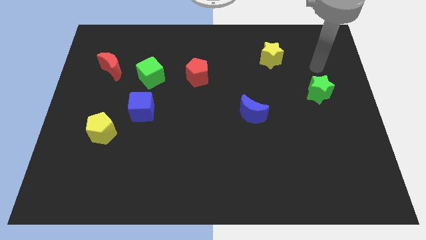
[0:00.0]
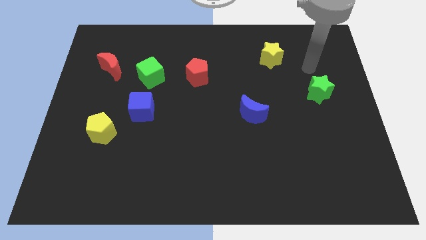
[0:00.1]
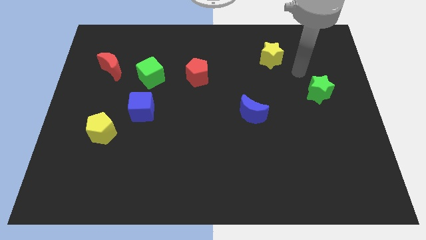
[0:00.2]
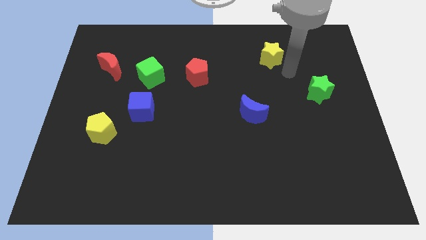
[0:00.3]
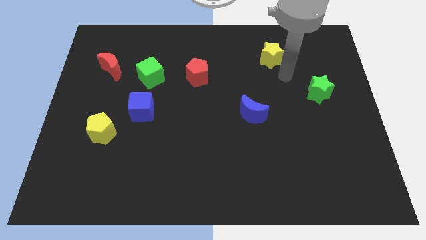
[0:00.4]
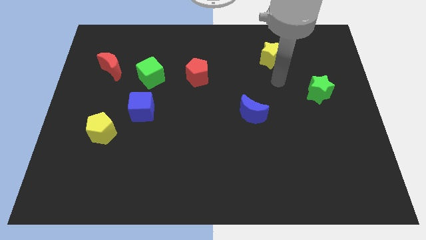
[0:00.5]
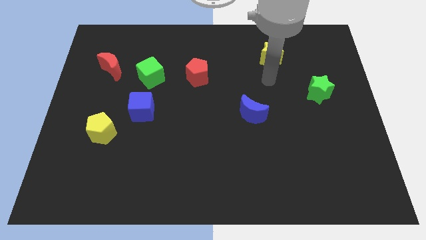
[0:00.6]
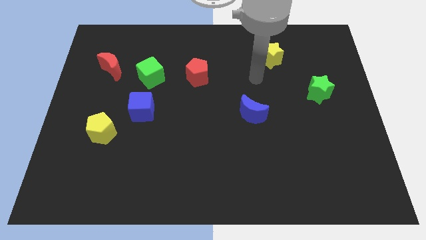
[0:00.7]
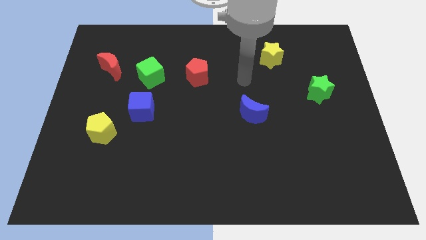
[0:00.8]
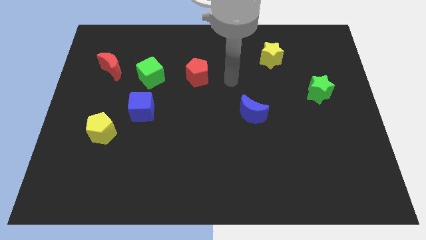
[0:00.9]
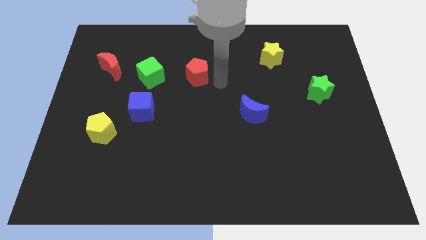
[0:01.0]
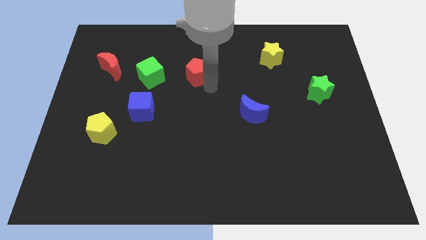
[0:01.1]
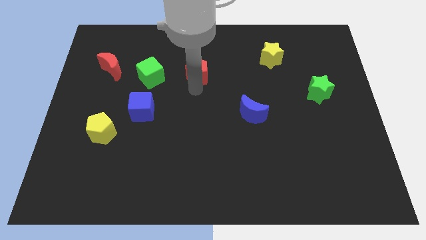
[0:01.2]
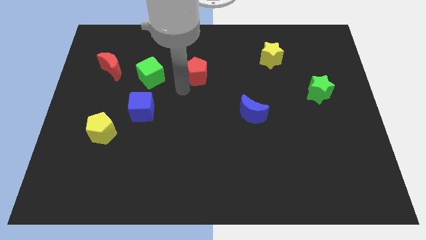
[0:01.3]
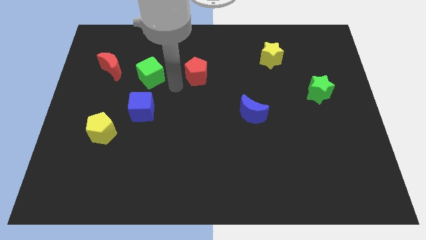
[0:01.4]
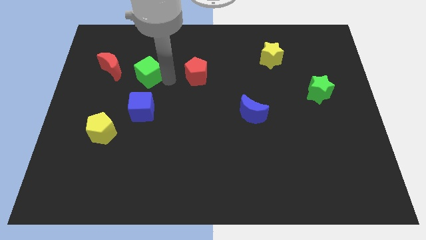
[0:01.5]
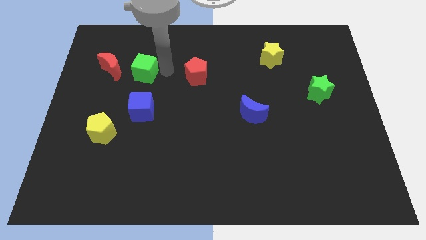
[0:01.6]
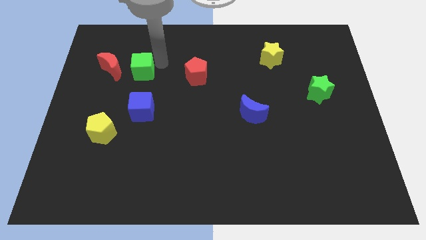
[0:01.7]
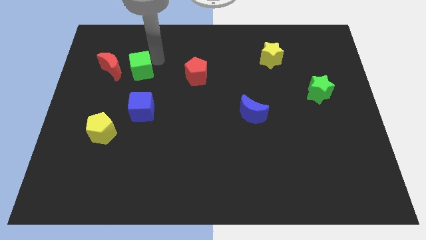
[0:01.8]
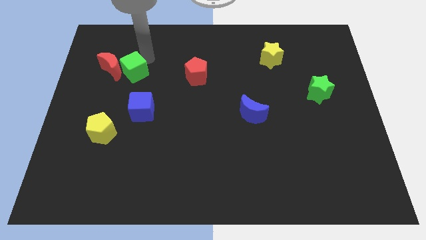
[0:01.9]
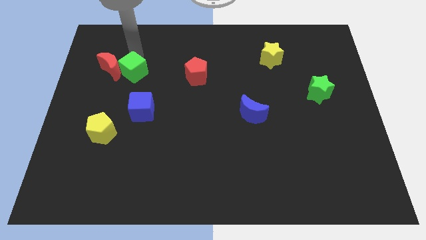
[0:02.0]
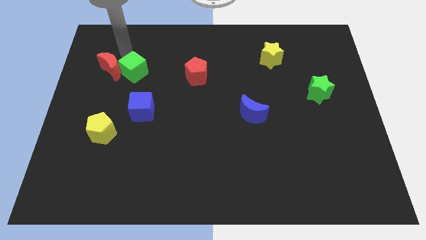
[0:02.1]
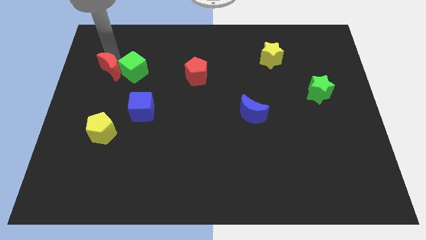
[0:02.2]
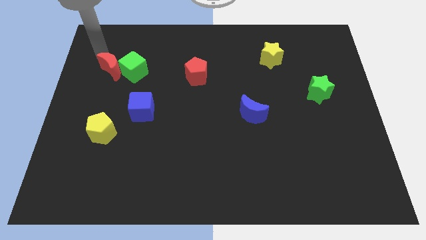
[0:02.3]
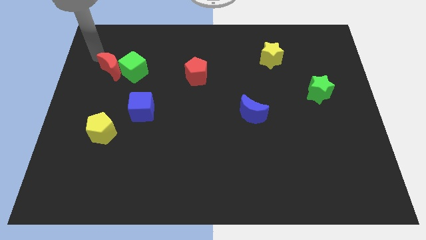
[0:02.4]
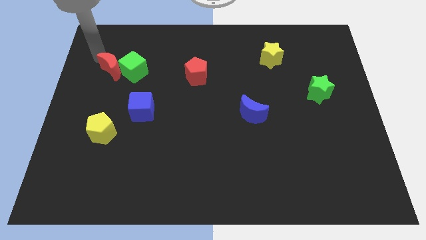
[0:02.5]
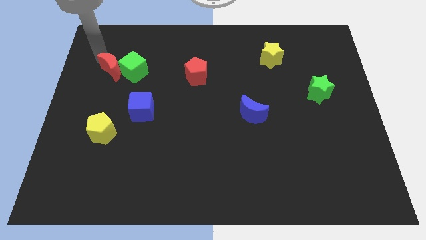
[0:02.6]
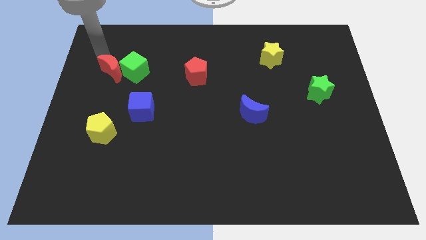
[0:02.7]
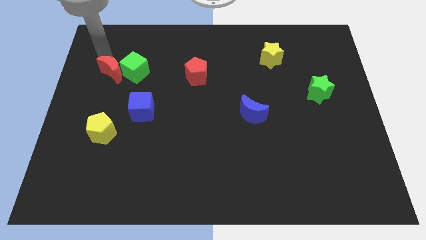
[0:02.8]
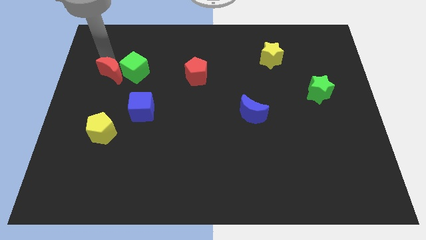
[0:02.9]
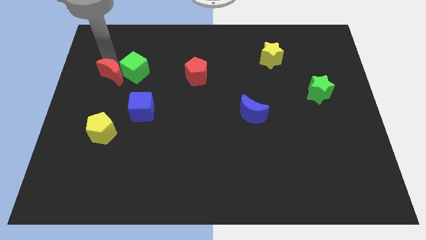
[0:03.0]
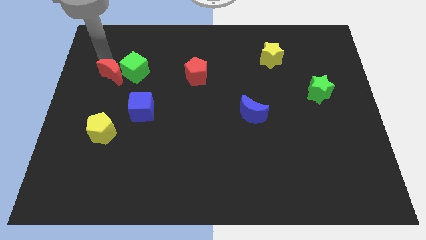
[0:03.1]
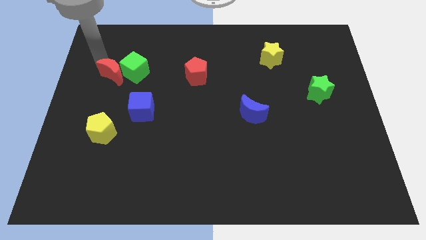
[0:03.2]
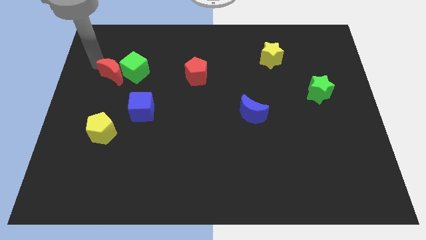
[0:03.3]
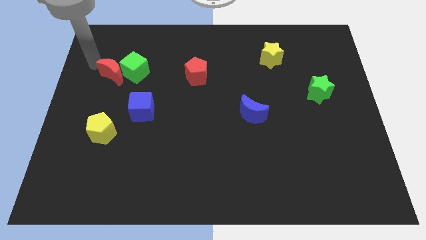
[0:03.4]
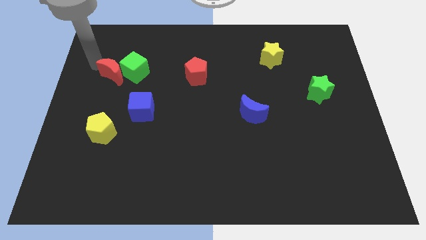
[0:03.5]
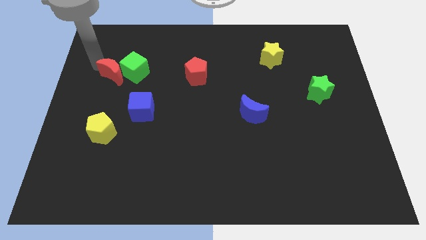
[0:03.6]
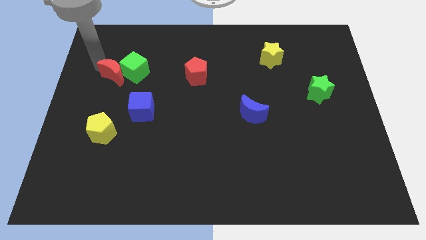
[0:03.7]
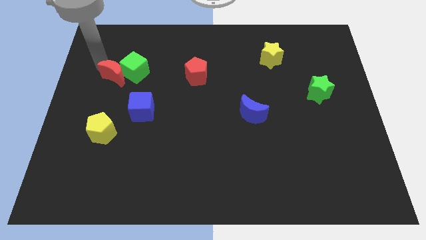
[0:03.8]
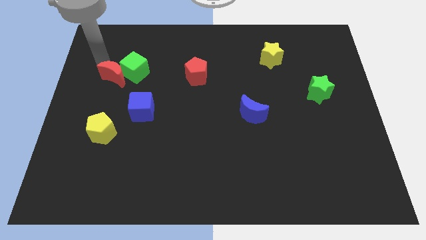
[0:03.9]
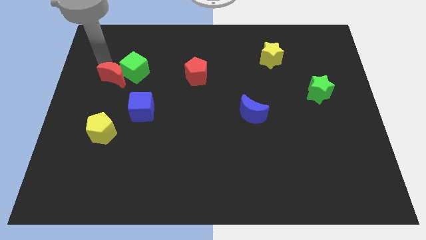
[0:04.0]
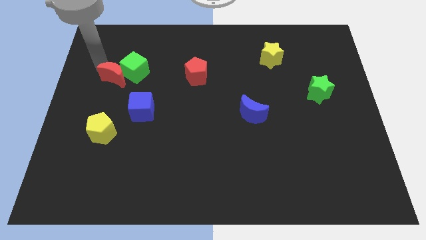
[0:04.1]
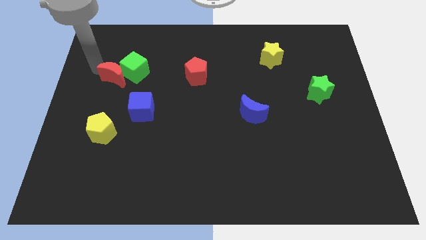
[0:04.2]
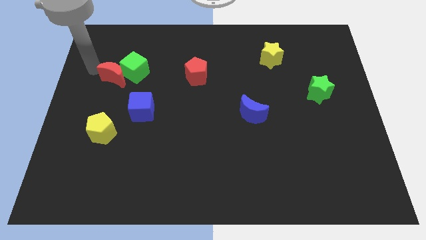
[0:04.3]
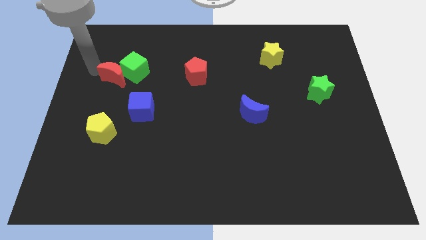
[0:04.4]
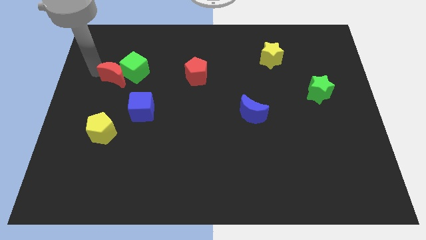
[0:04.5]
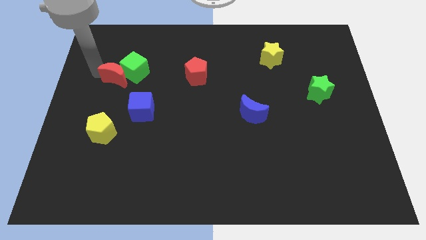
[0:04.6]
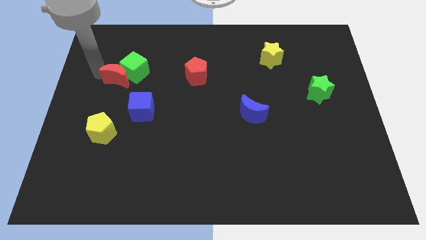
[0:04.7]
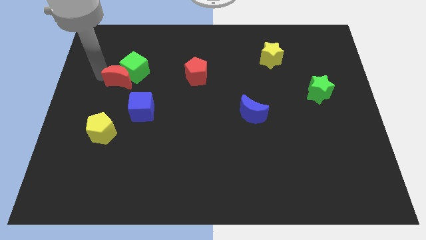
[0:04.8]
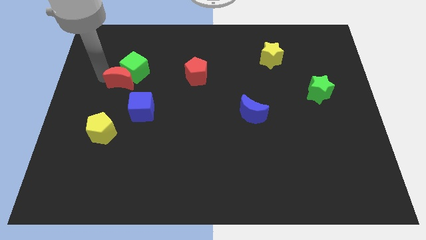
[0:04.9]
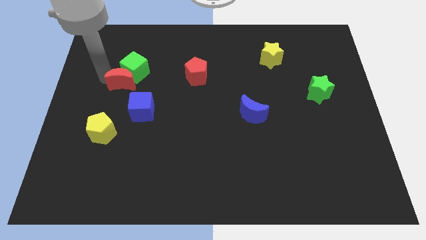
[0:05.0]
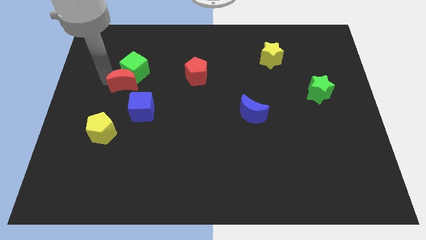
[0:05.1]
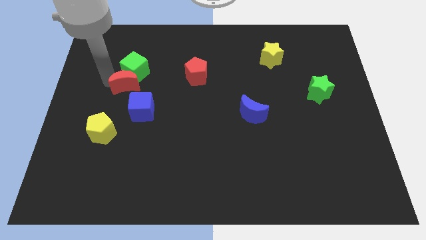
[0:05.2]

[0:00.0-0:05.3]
slide the red moon somewhat downwards and right diagonally

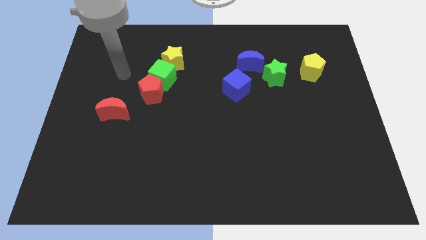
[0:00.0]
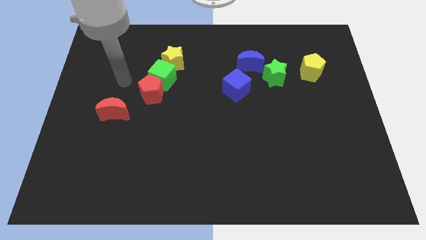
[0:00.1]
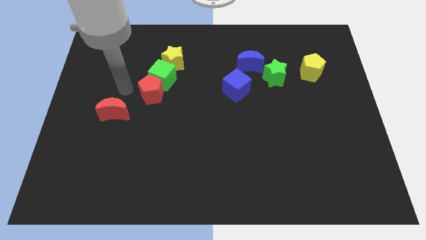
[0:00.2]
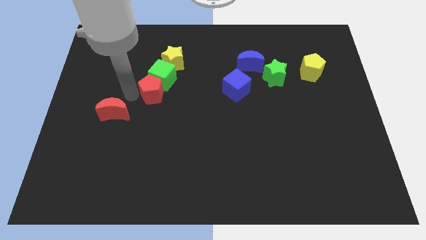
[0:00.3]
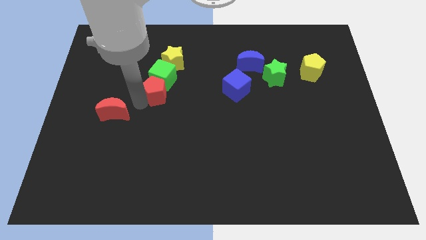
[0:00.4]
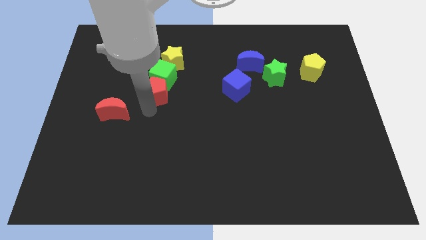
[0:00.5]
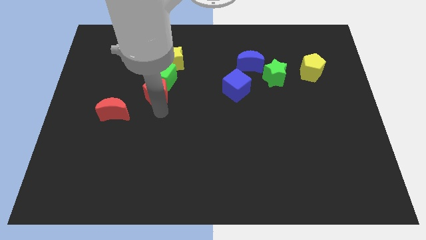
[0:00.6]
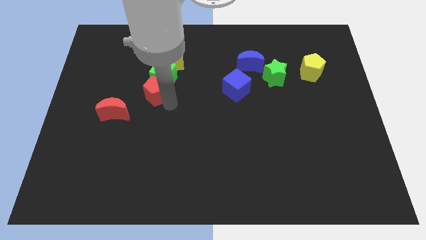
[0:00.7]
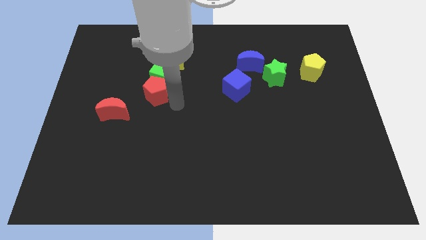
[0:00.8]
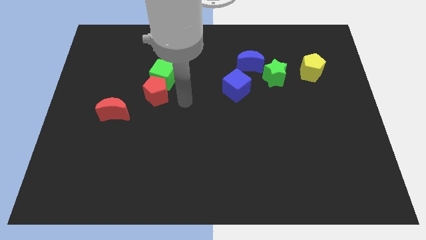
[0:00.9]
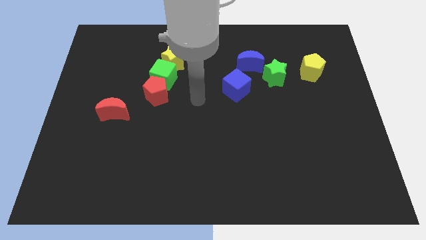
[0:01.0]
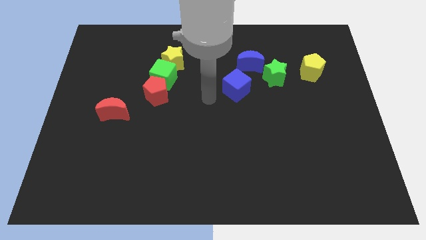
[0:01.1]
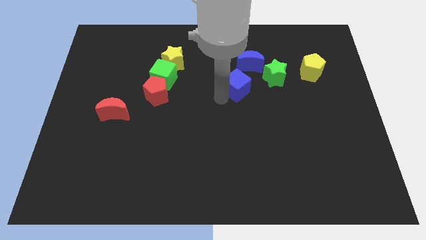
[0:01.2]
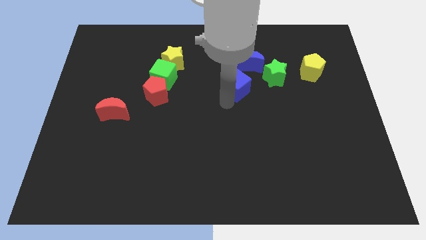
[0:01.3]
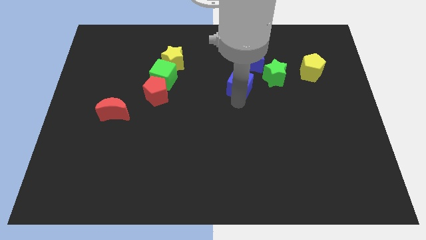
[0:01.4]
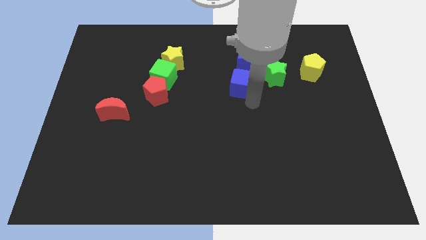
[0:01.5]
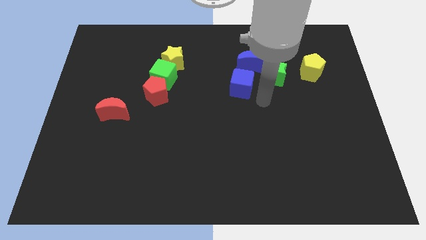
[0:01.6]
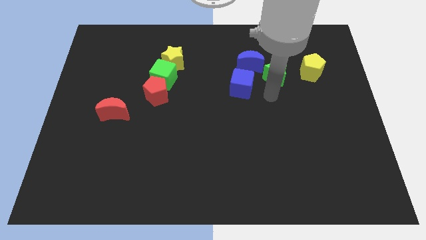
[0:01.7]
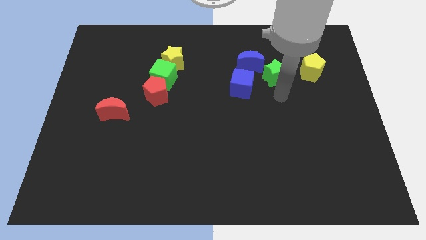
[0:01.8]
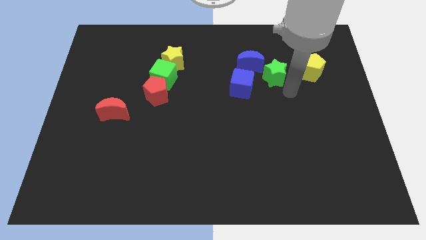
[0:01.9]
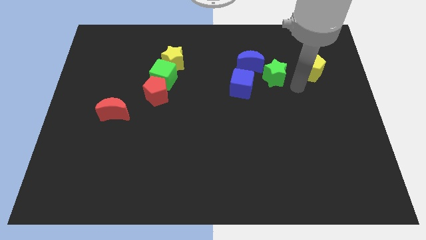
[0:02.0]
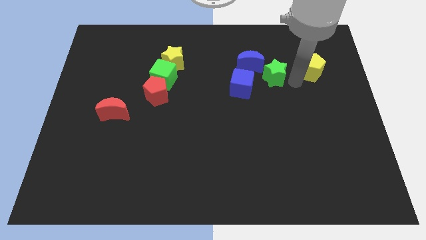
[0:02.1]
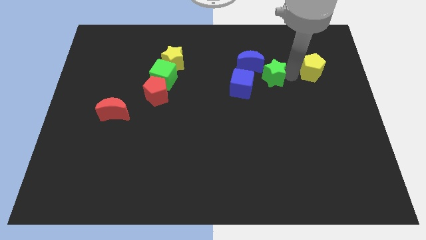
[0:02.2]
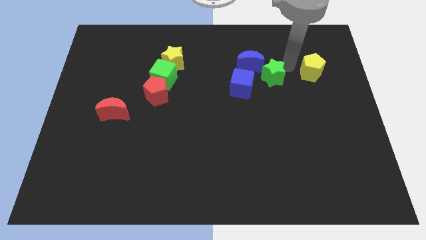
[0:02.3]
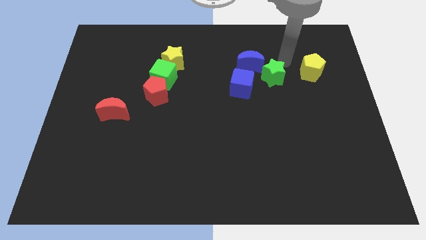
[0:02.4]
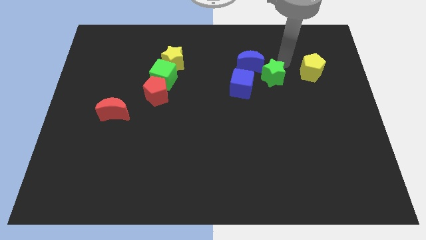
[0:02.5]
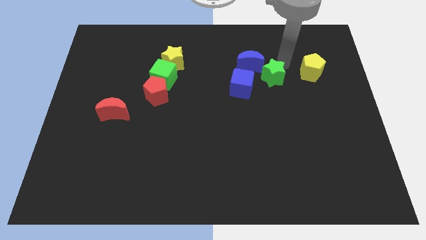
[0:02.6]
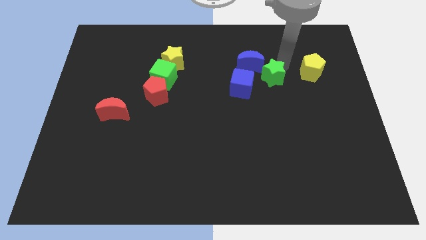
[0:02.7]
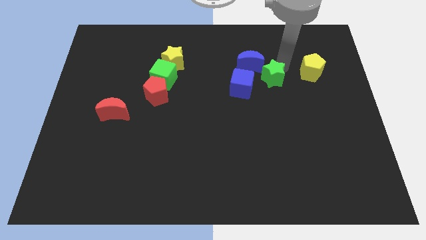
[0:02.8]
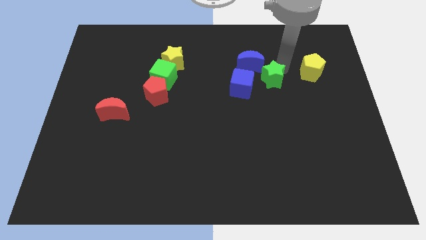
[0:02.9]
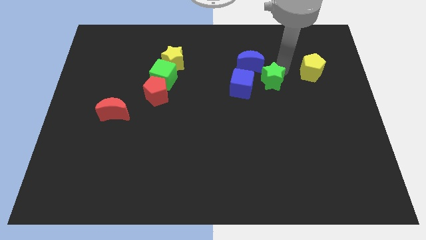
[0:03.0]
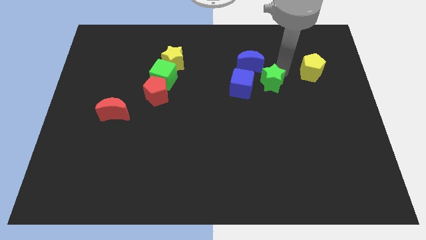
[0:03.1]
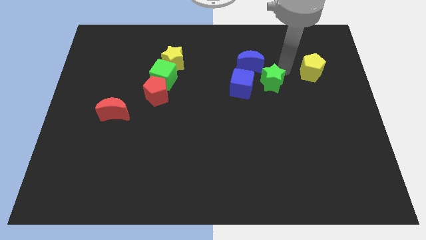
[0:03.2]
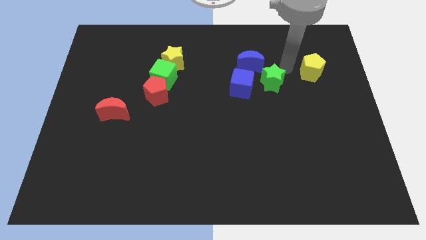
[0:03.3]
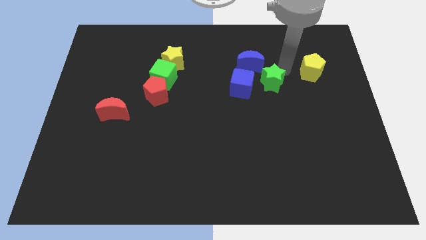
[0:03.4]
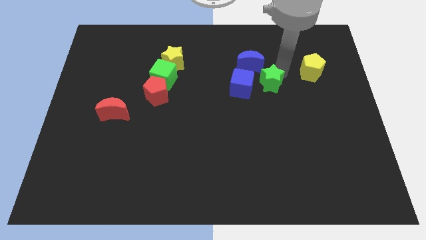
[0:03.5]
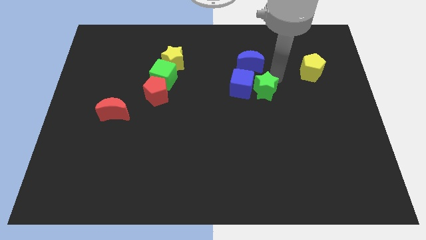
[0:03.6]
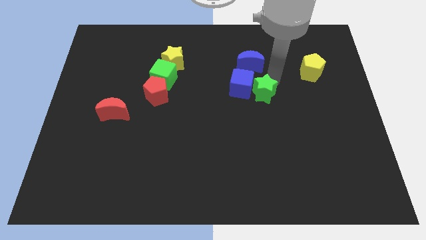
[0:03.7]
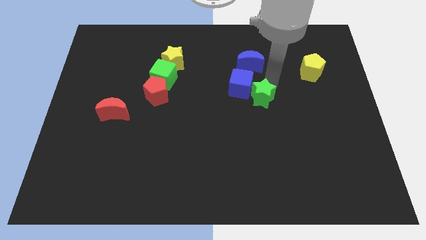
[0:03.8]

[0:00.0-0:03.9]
move the green star downwards and left diagonally a bit
